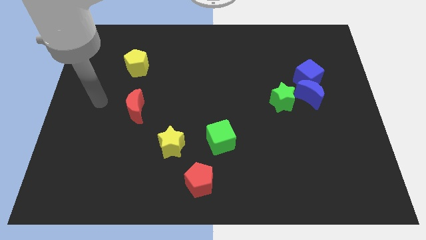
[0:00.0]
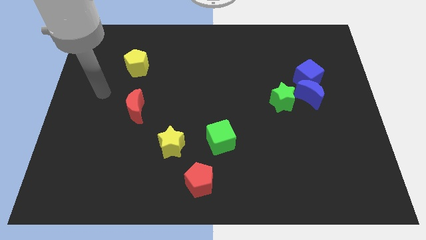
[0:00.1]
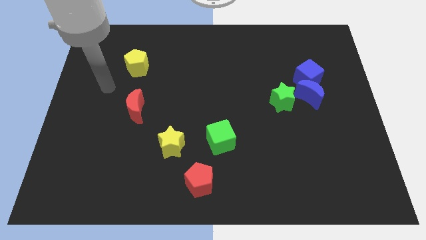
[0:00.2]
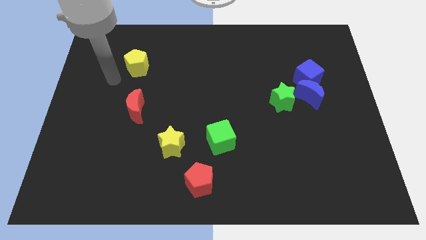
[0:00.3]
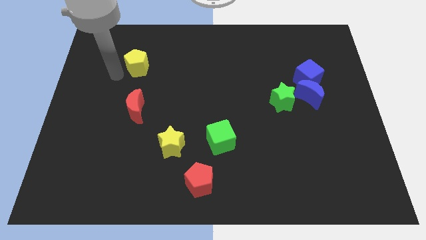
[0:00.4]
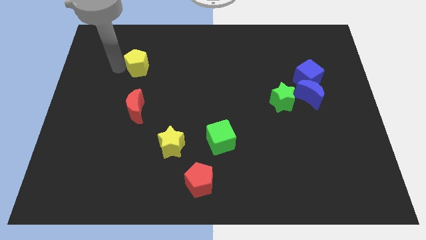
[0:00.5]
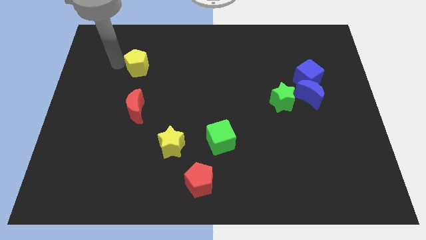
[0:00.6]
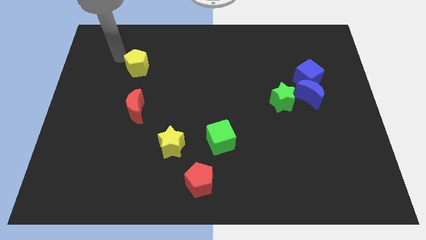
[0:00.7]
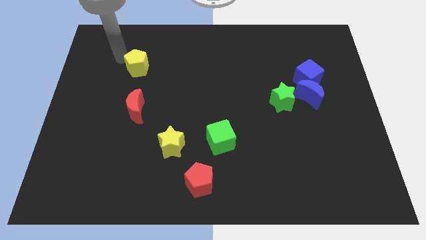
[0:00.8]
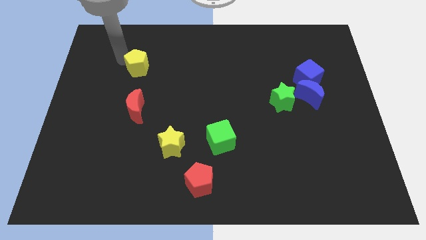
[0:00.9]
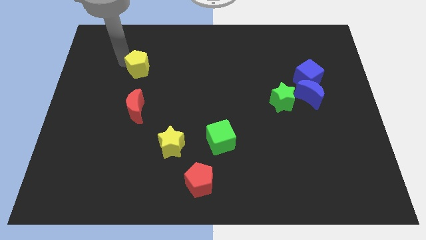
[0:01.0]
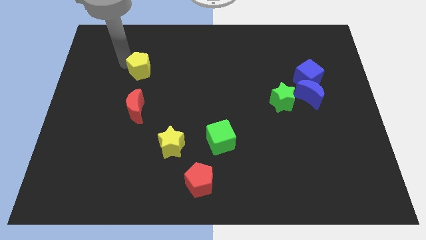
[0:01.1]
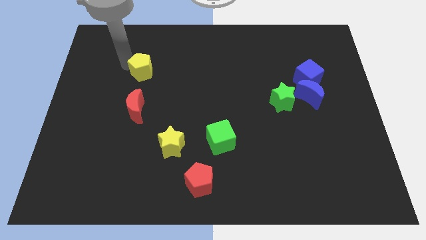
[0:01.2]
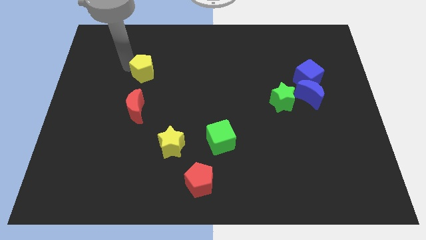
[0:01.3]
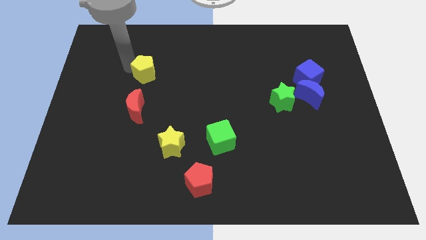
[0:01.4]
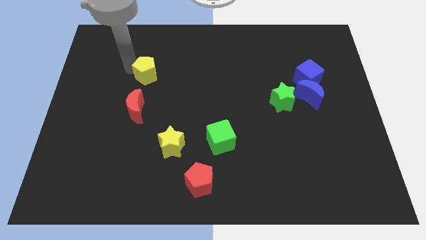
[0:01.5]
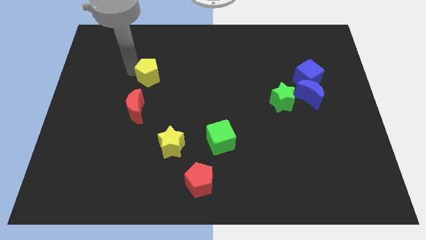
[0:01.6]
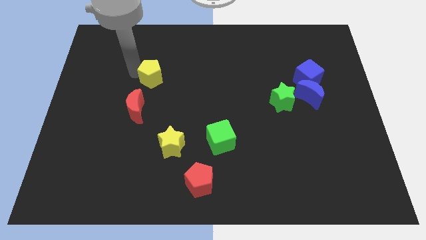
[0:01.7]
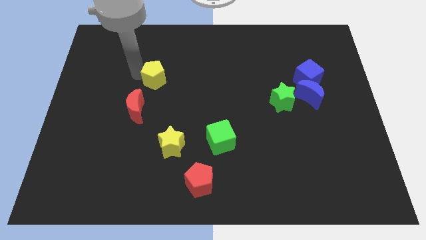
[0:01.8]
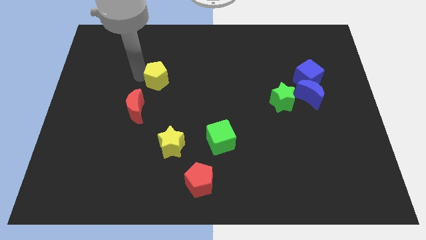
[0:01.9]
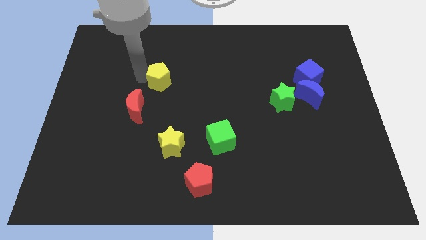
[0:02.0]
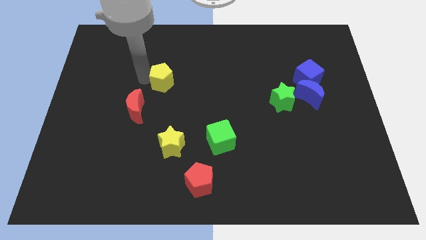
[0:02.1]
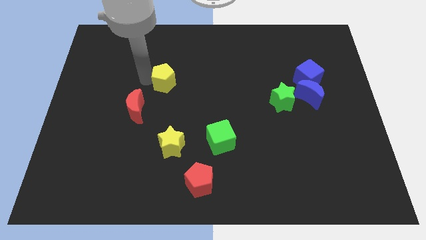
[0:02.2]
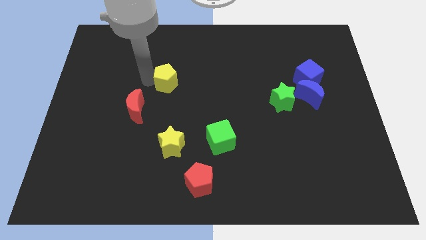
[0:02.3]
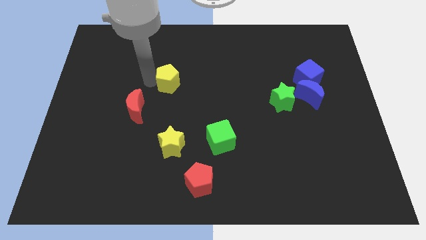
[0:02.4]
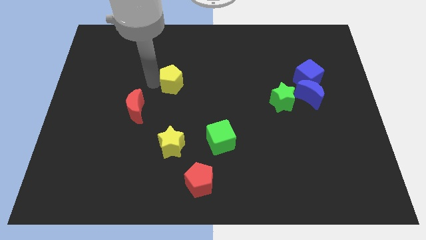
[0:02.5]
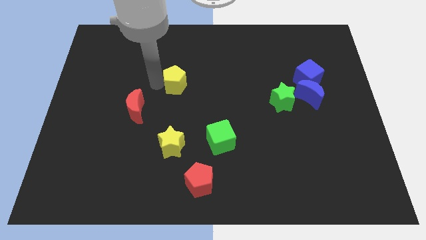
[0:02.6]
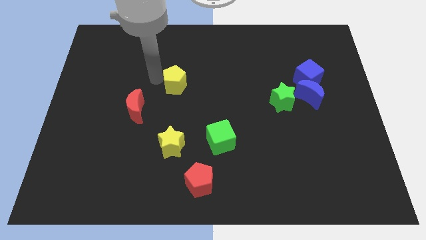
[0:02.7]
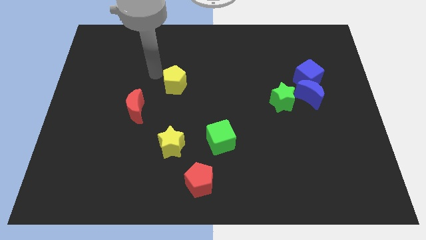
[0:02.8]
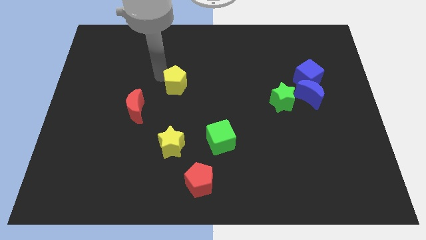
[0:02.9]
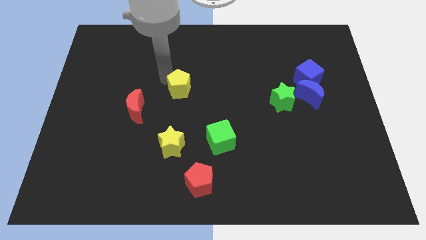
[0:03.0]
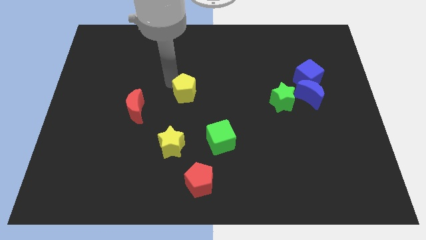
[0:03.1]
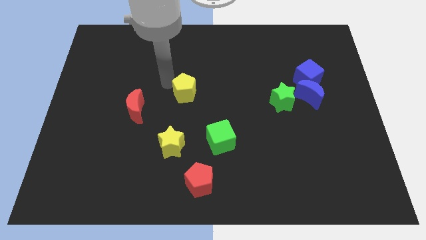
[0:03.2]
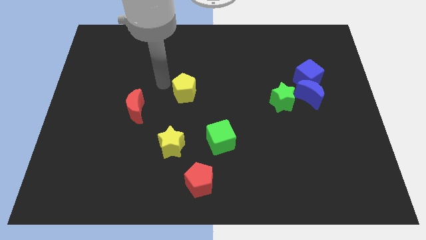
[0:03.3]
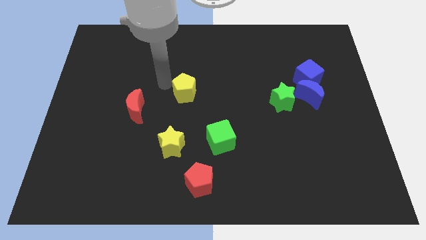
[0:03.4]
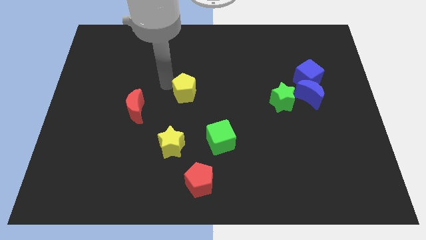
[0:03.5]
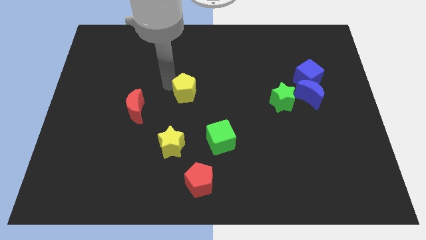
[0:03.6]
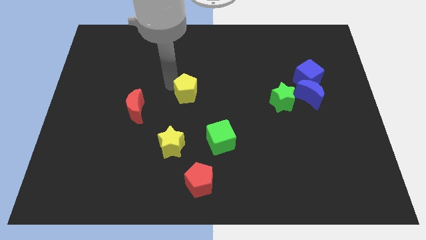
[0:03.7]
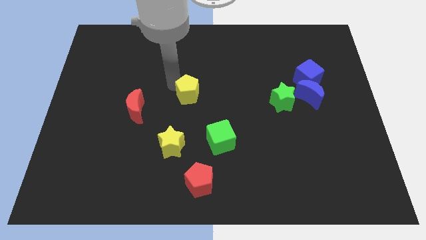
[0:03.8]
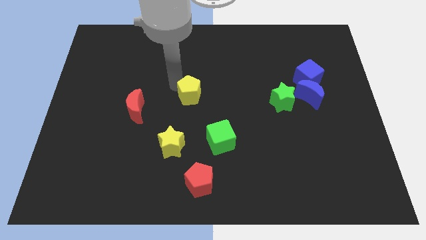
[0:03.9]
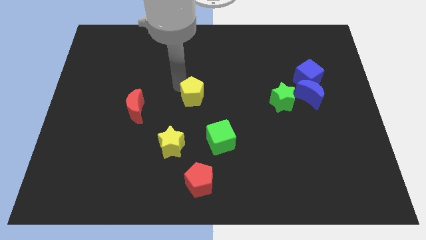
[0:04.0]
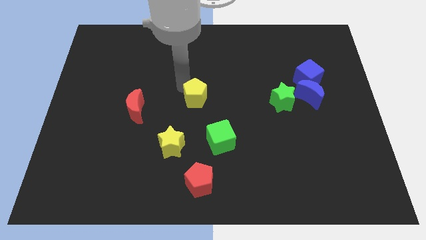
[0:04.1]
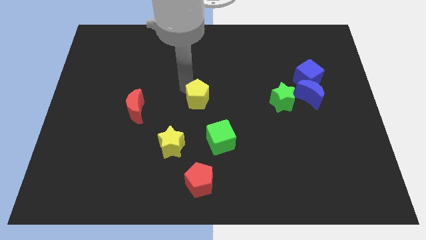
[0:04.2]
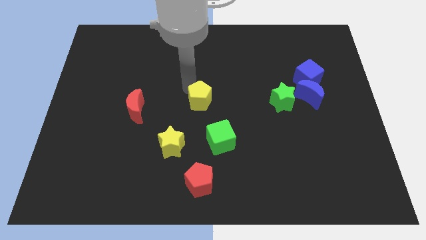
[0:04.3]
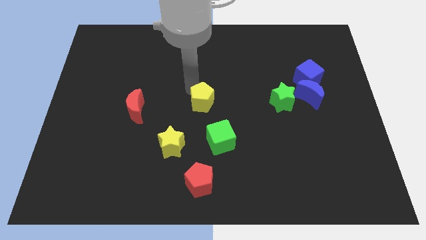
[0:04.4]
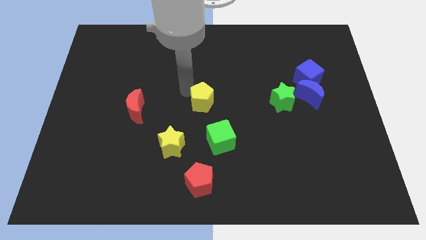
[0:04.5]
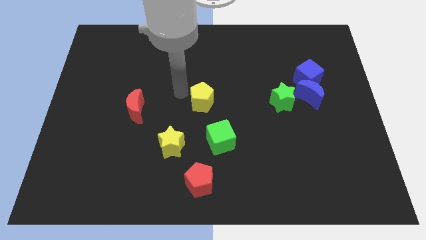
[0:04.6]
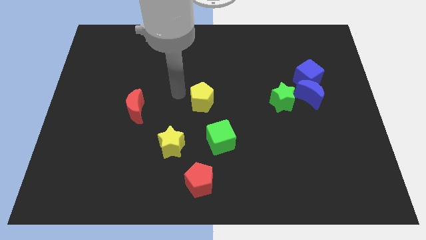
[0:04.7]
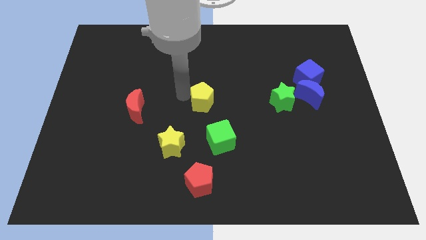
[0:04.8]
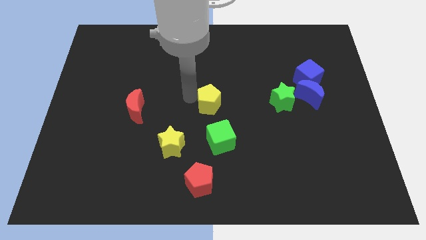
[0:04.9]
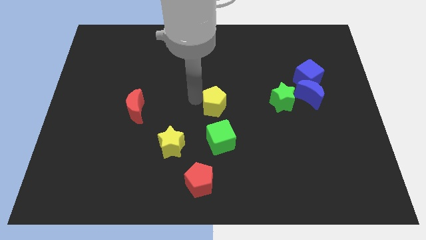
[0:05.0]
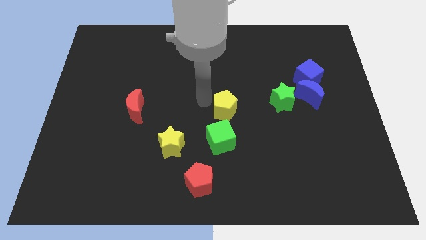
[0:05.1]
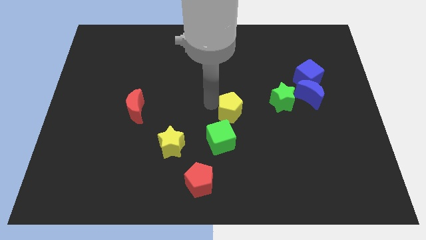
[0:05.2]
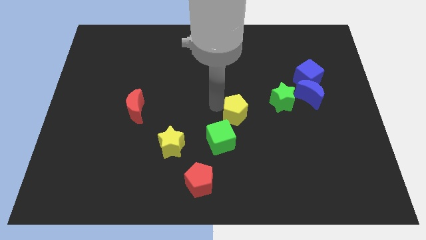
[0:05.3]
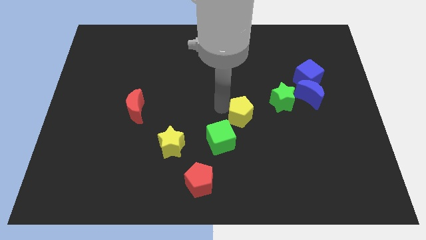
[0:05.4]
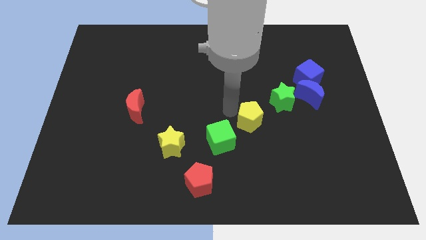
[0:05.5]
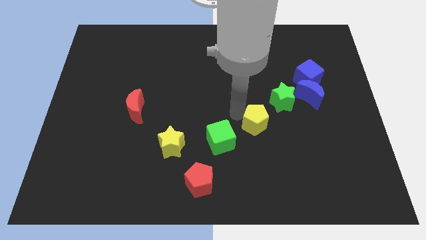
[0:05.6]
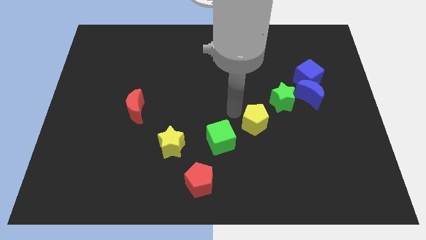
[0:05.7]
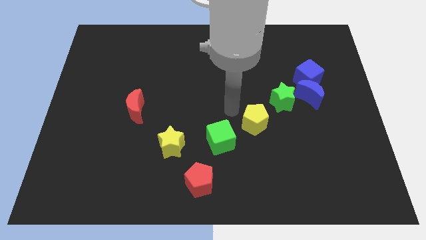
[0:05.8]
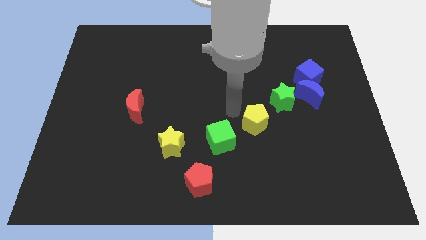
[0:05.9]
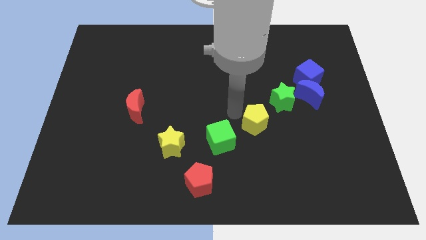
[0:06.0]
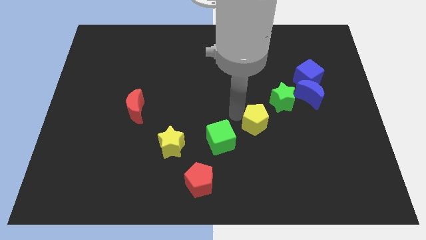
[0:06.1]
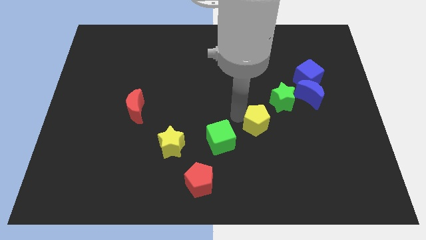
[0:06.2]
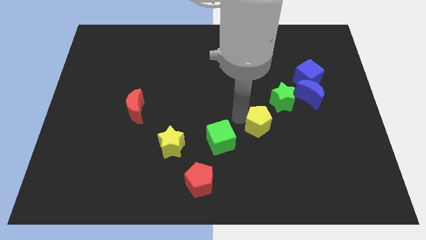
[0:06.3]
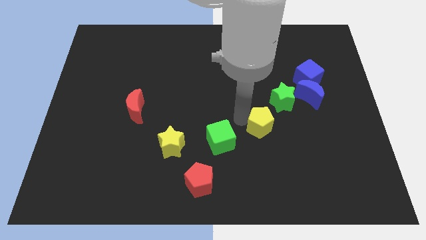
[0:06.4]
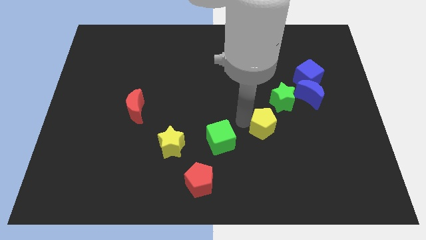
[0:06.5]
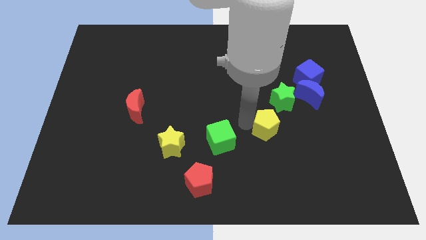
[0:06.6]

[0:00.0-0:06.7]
put the yellow pentagon to the bottom of the green star
